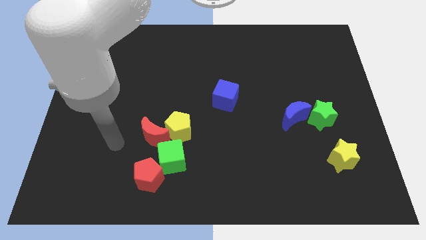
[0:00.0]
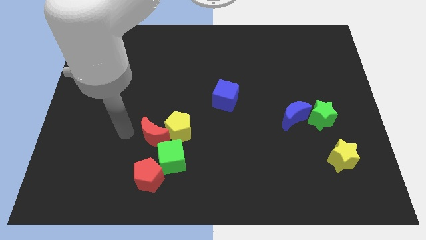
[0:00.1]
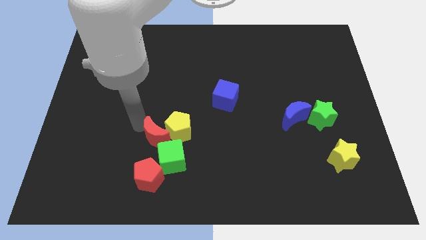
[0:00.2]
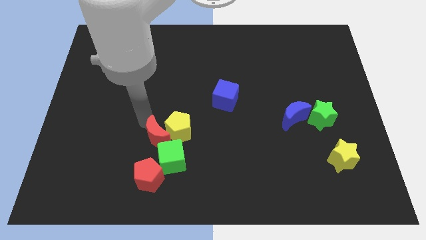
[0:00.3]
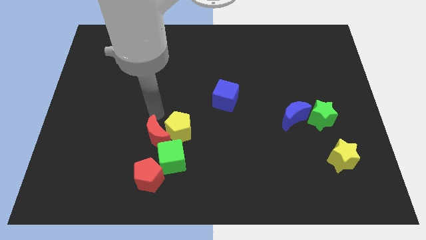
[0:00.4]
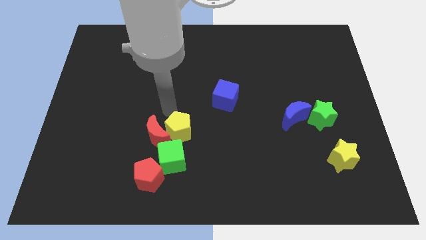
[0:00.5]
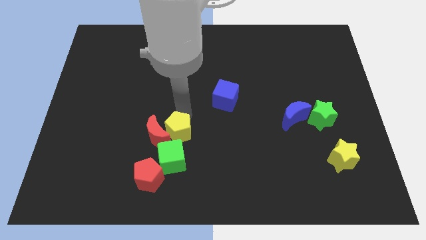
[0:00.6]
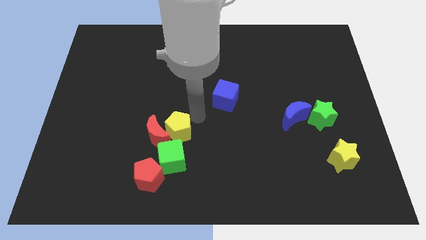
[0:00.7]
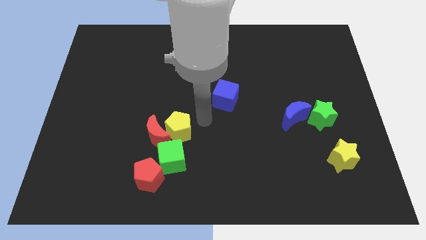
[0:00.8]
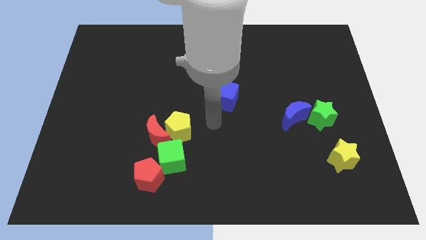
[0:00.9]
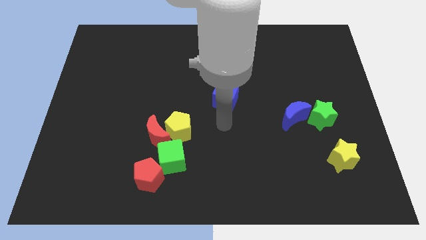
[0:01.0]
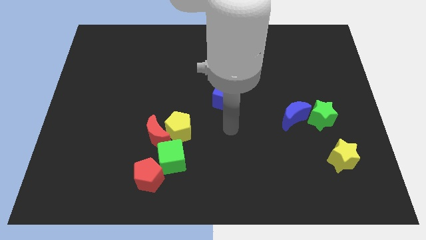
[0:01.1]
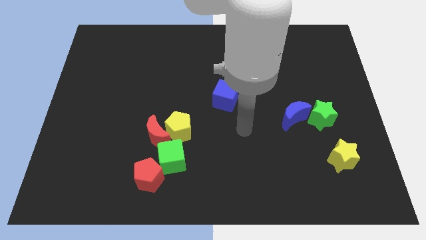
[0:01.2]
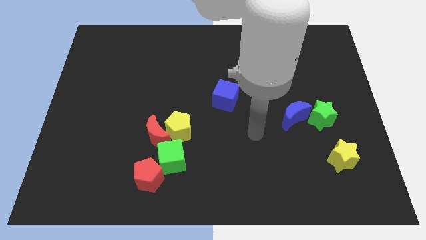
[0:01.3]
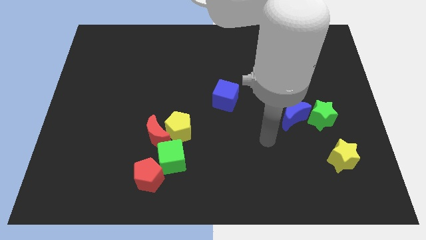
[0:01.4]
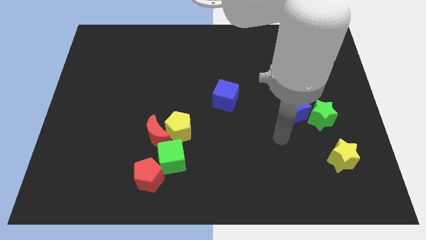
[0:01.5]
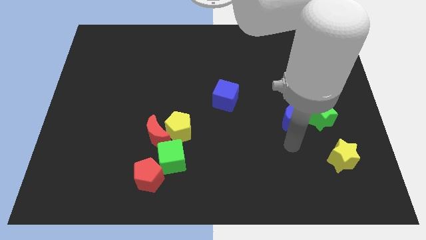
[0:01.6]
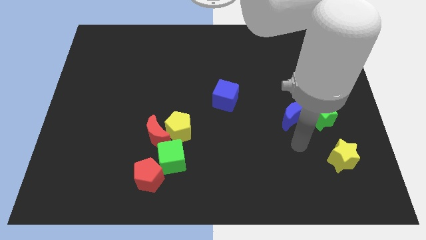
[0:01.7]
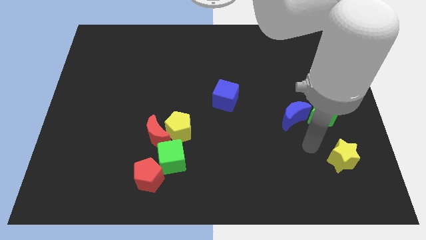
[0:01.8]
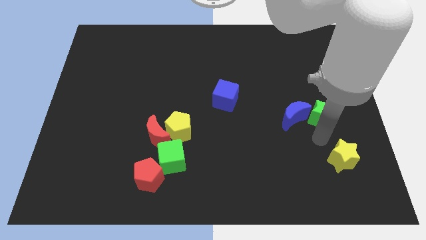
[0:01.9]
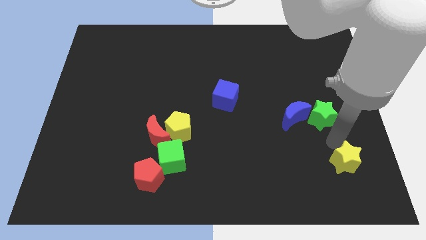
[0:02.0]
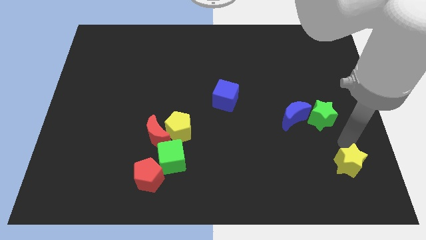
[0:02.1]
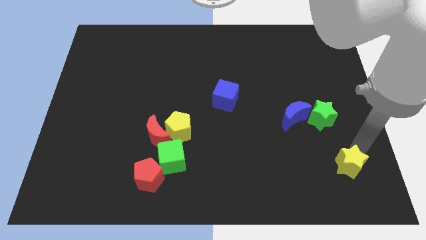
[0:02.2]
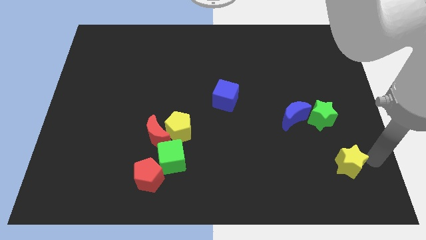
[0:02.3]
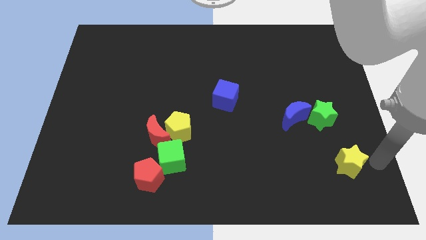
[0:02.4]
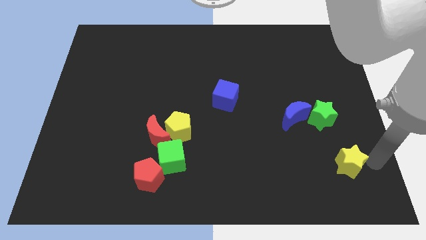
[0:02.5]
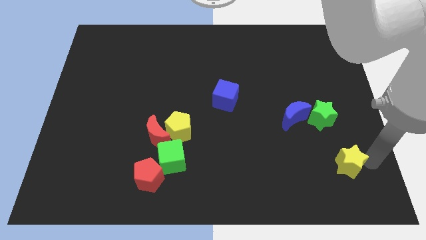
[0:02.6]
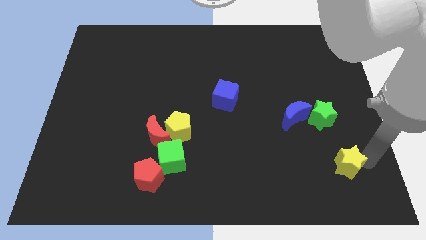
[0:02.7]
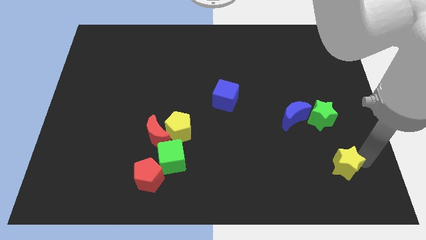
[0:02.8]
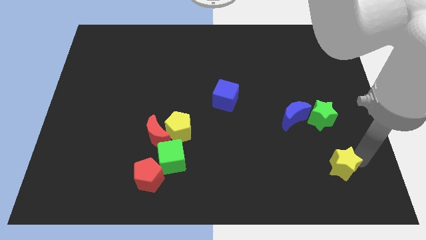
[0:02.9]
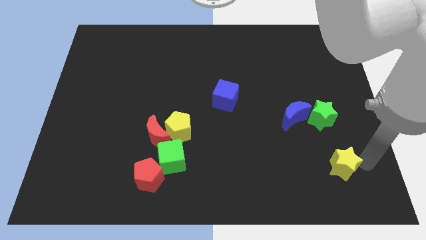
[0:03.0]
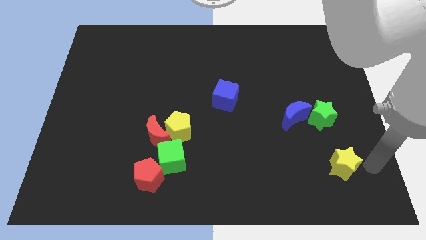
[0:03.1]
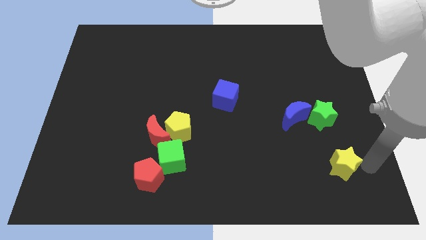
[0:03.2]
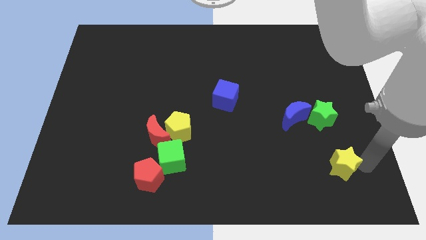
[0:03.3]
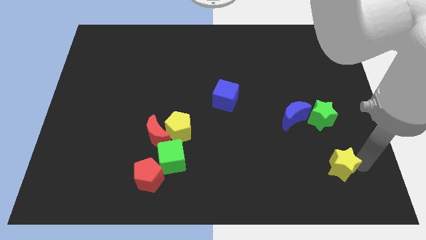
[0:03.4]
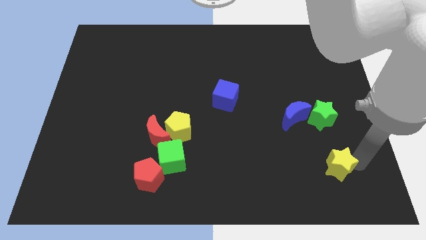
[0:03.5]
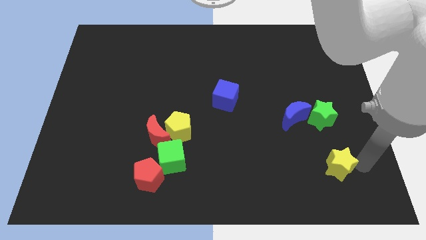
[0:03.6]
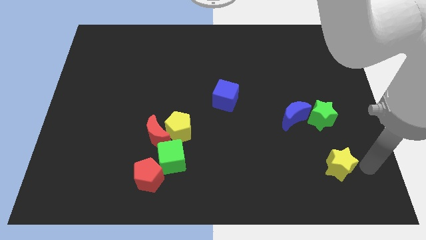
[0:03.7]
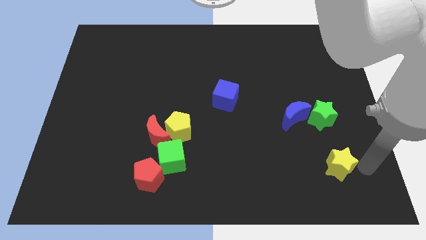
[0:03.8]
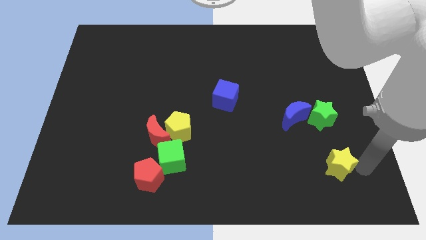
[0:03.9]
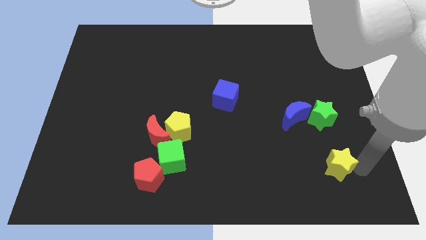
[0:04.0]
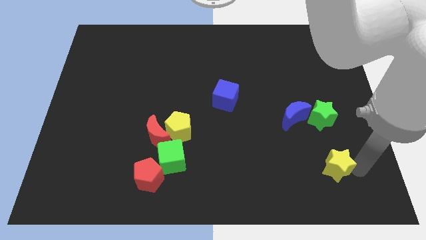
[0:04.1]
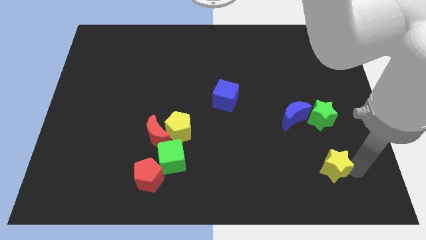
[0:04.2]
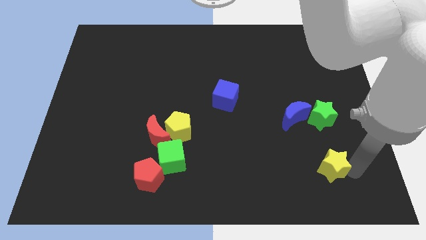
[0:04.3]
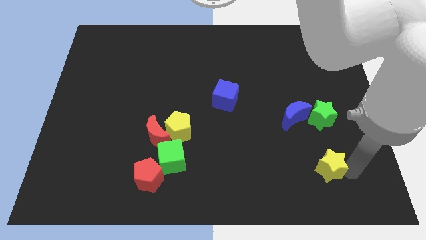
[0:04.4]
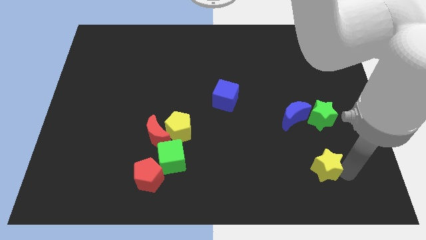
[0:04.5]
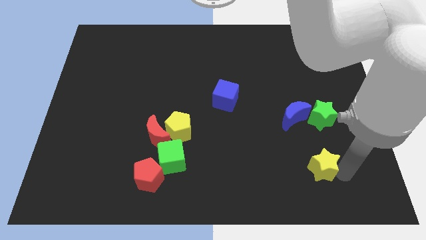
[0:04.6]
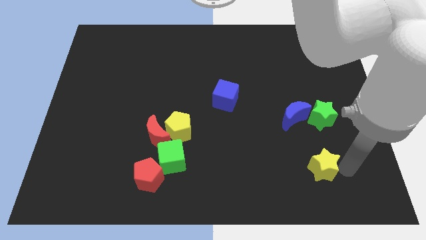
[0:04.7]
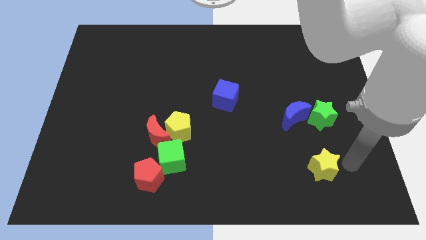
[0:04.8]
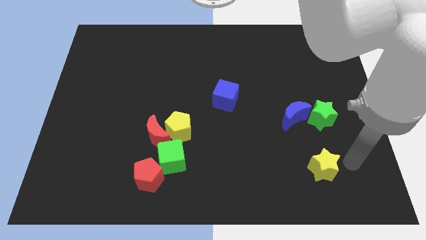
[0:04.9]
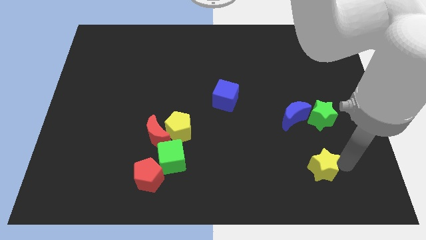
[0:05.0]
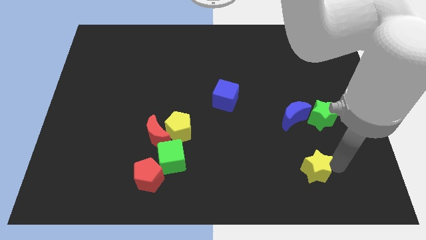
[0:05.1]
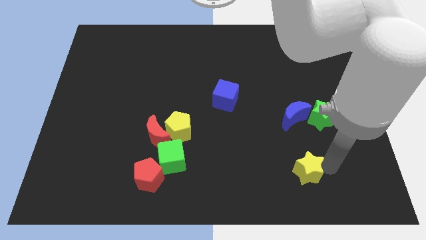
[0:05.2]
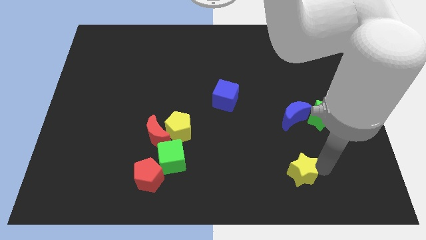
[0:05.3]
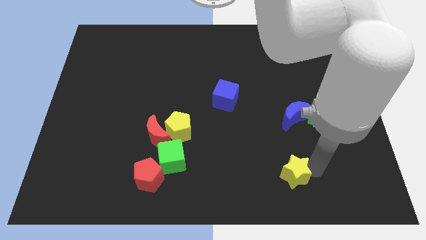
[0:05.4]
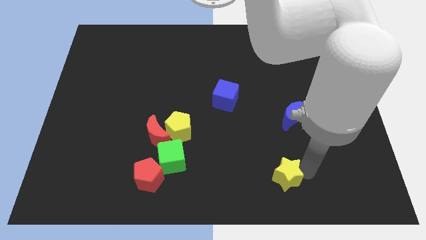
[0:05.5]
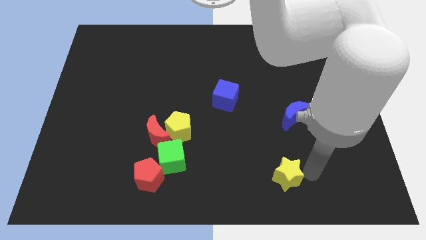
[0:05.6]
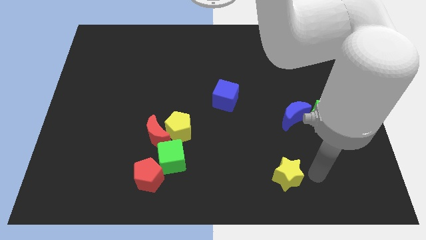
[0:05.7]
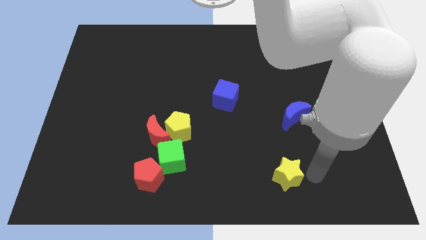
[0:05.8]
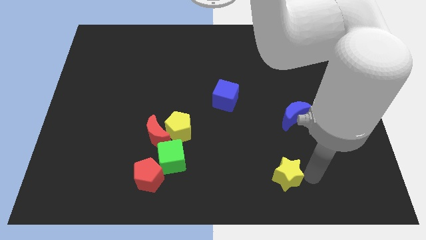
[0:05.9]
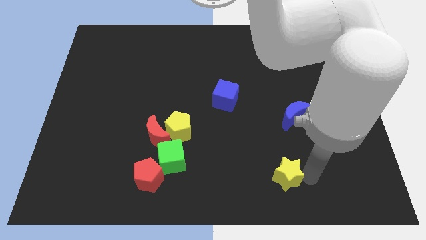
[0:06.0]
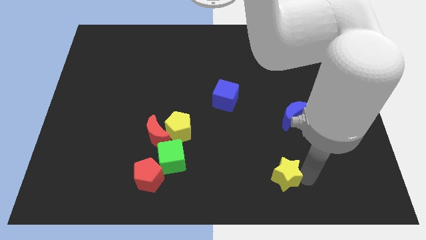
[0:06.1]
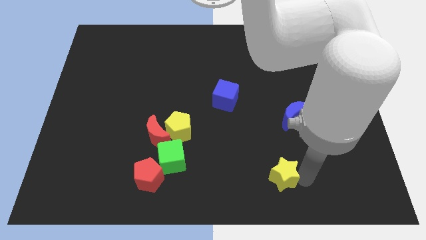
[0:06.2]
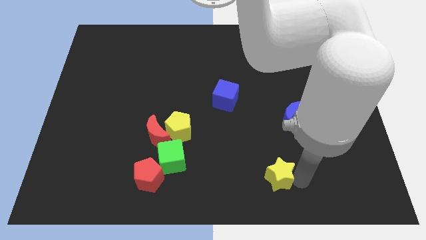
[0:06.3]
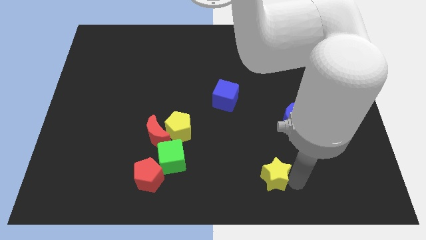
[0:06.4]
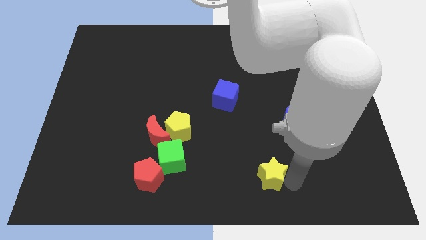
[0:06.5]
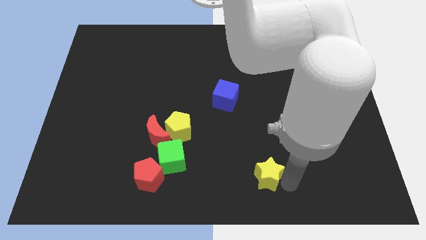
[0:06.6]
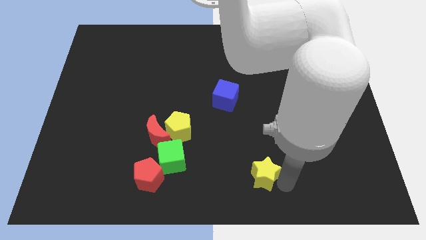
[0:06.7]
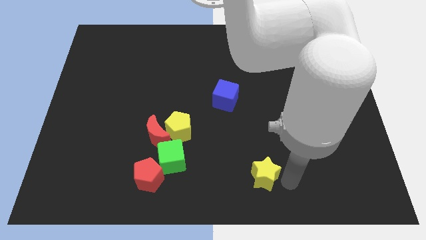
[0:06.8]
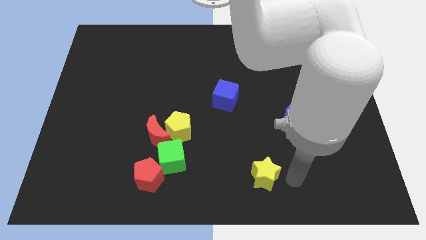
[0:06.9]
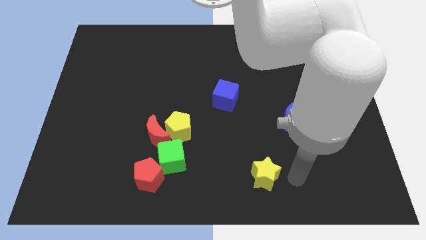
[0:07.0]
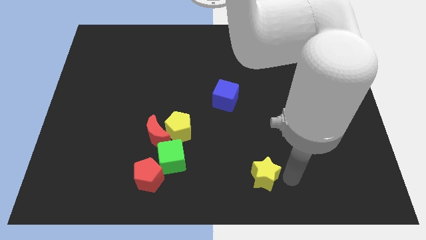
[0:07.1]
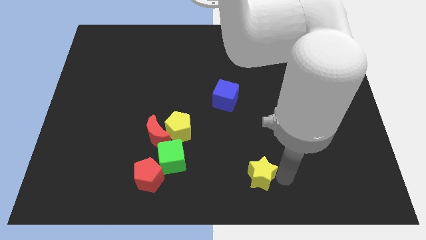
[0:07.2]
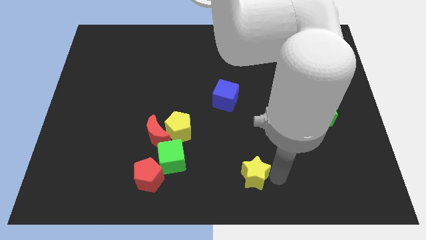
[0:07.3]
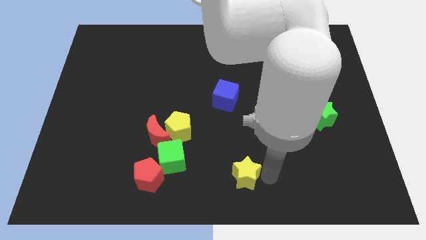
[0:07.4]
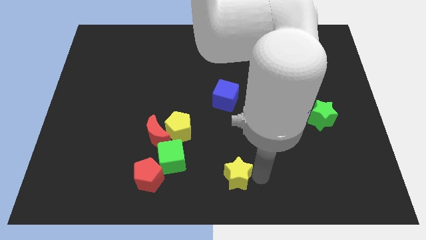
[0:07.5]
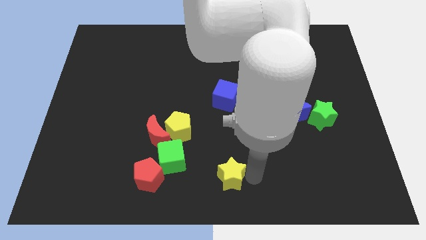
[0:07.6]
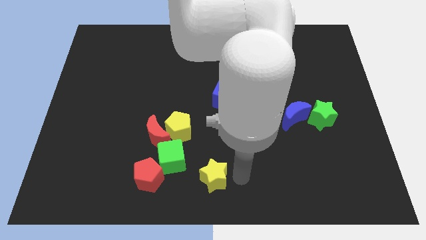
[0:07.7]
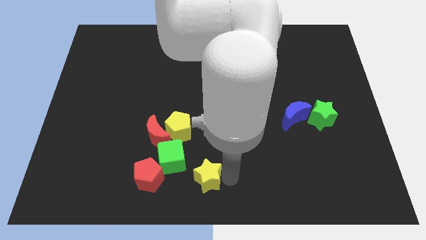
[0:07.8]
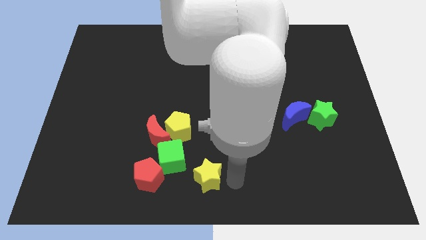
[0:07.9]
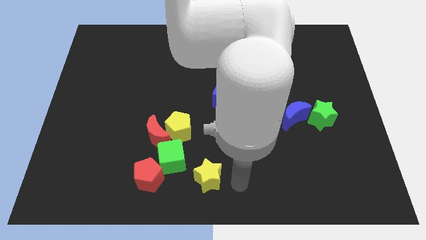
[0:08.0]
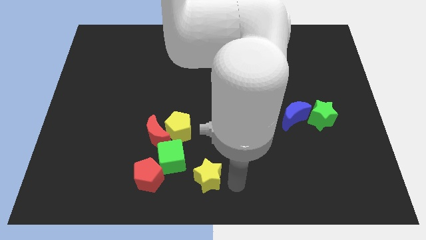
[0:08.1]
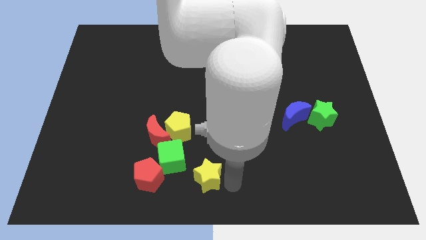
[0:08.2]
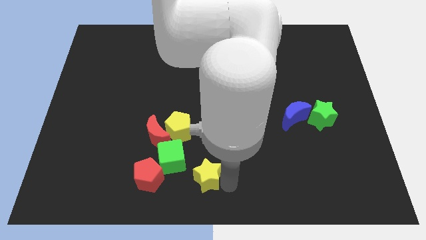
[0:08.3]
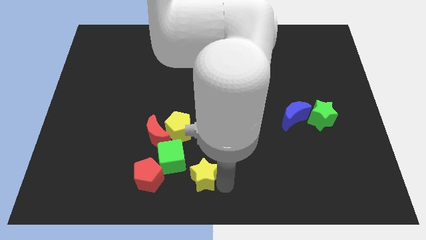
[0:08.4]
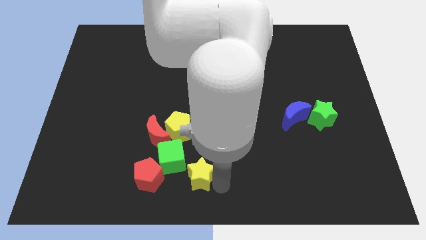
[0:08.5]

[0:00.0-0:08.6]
put the yellow star to the bottom side of the yellow pentagon
